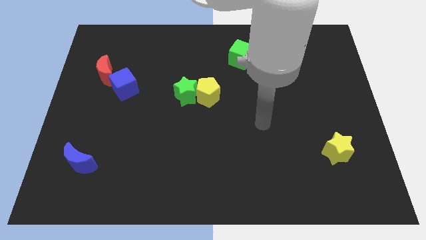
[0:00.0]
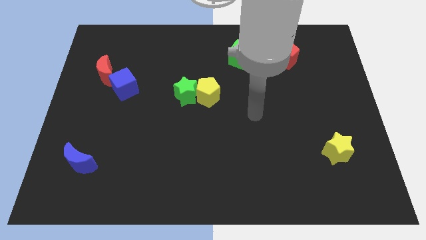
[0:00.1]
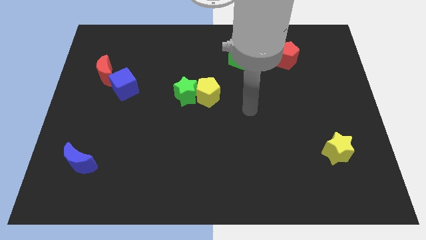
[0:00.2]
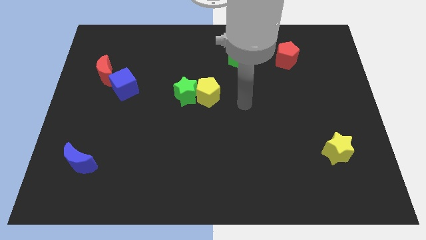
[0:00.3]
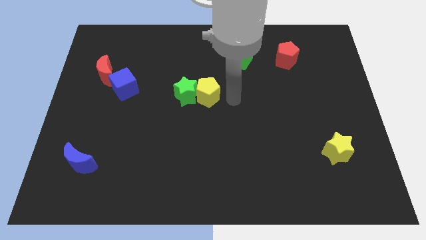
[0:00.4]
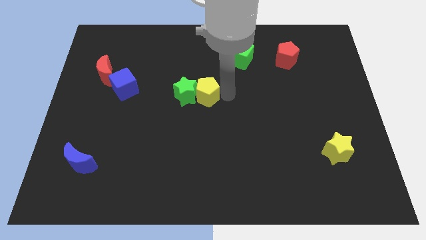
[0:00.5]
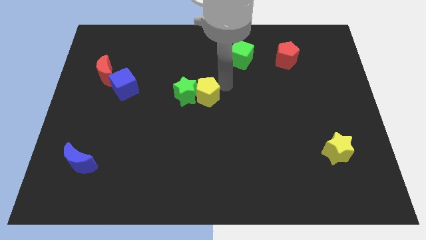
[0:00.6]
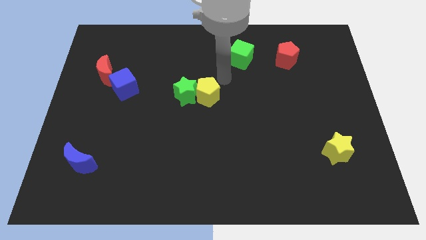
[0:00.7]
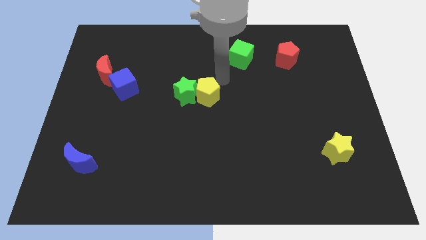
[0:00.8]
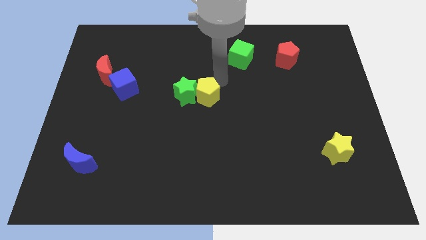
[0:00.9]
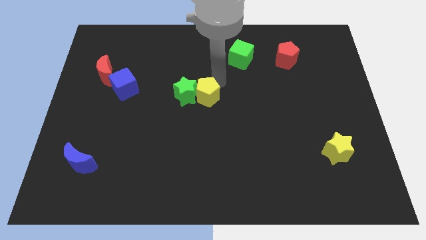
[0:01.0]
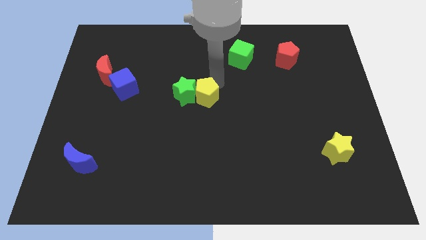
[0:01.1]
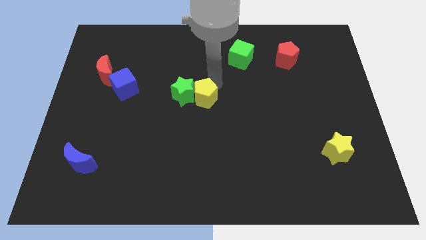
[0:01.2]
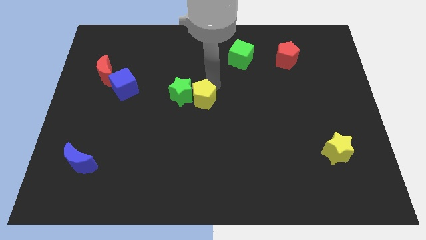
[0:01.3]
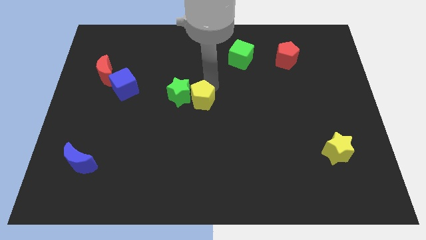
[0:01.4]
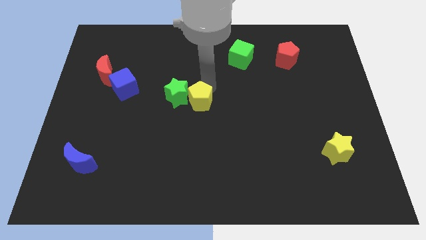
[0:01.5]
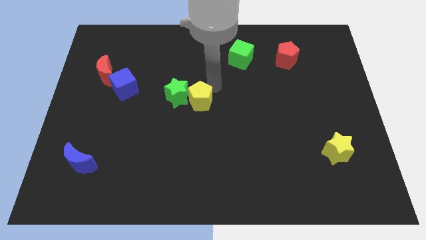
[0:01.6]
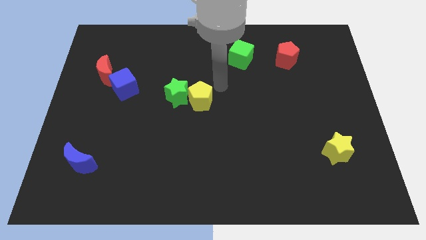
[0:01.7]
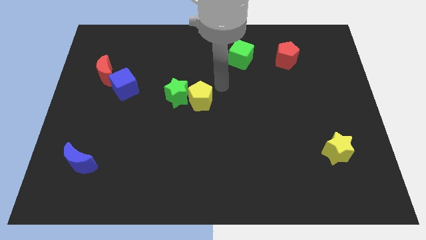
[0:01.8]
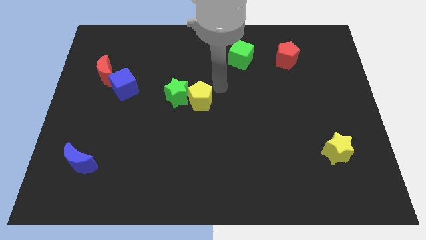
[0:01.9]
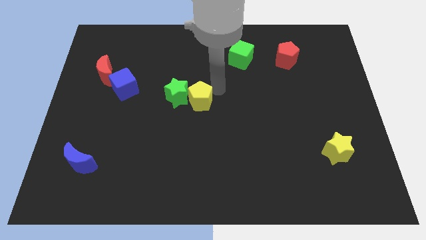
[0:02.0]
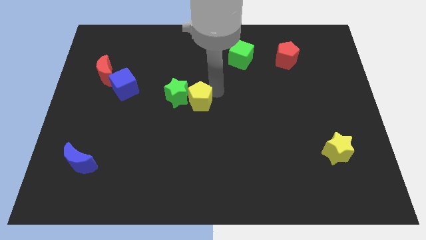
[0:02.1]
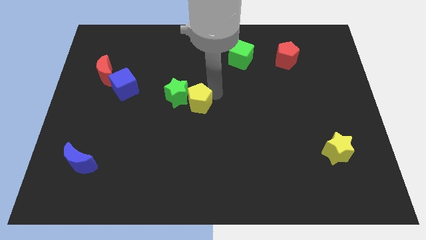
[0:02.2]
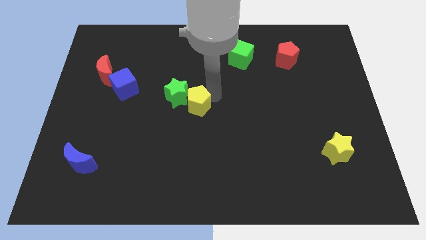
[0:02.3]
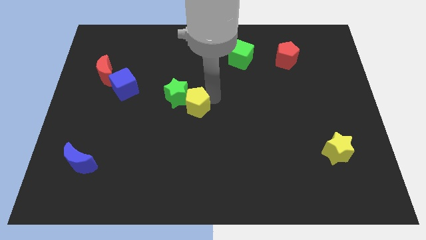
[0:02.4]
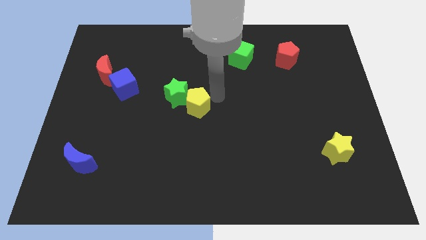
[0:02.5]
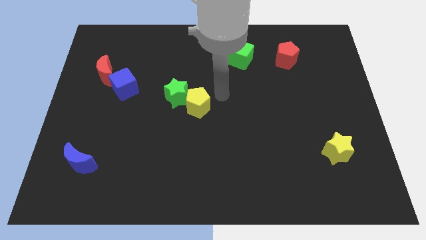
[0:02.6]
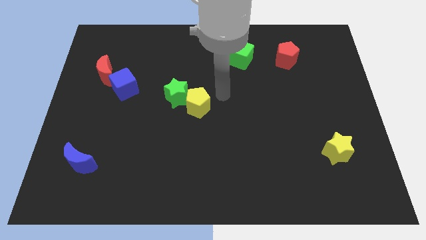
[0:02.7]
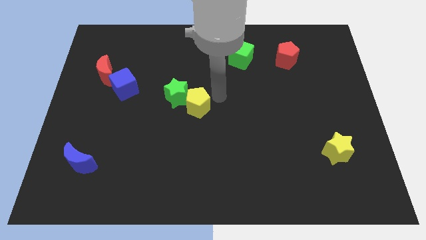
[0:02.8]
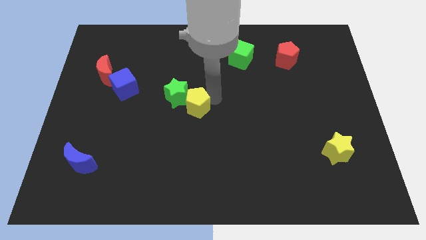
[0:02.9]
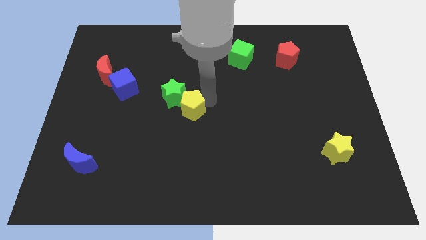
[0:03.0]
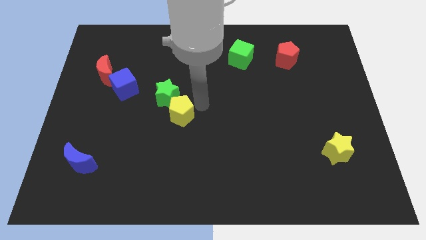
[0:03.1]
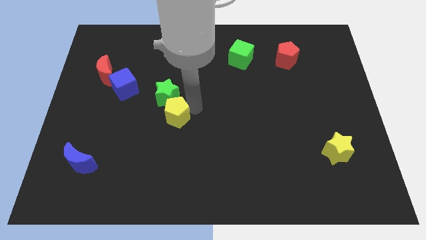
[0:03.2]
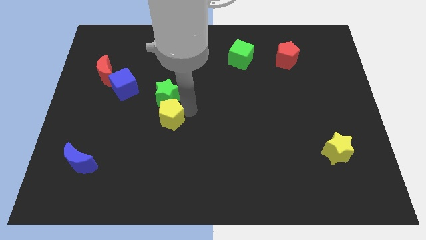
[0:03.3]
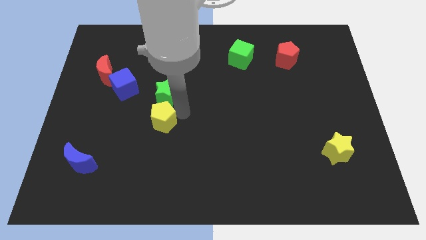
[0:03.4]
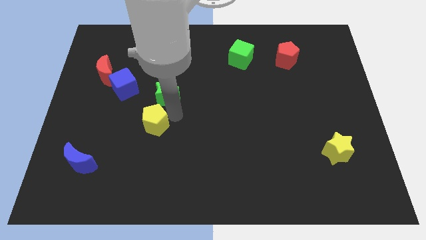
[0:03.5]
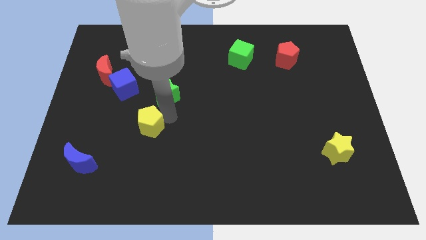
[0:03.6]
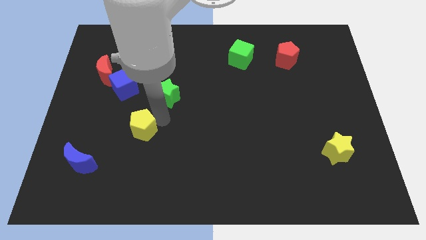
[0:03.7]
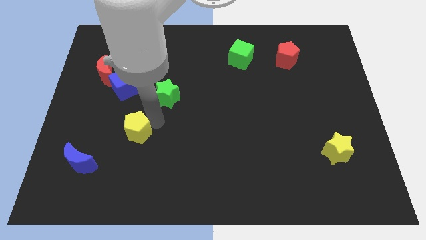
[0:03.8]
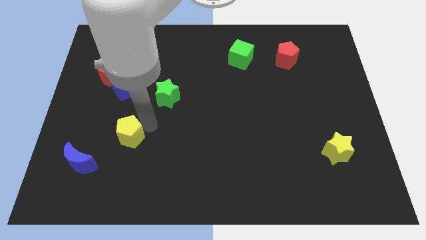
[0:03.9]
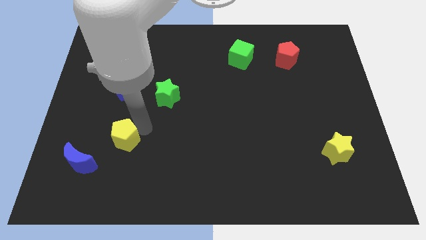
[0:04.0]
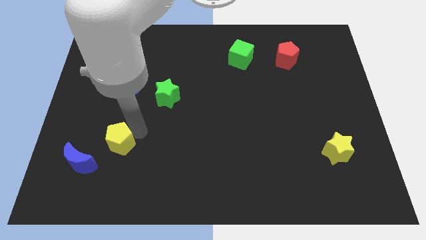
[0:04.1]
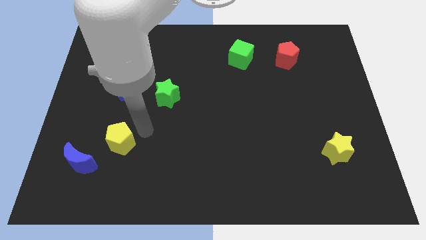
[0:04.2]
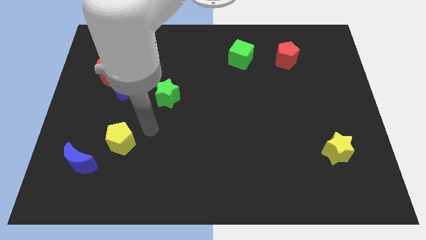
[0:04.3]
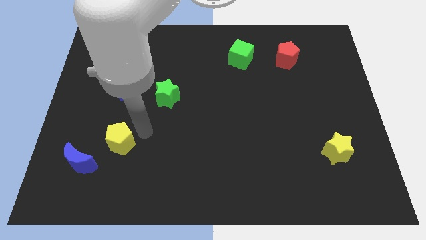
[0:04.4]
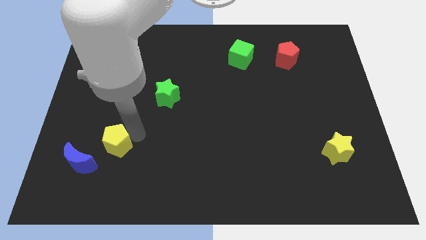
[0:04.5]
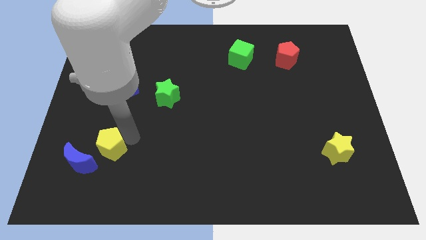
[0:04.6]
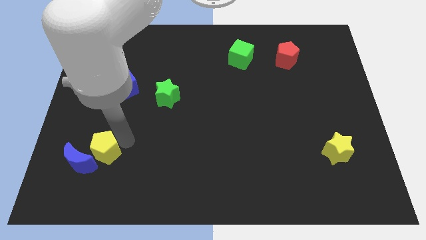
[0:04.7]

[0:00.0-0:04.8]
push the yellow pentagon towards the blue moon

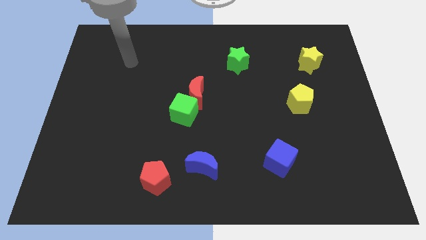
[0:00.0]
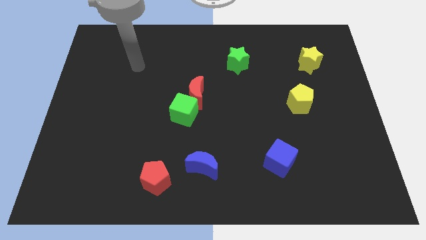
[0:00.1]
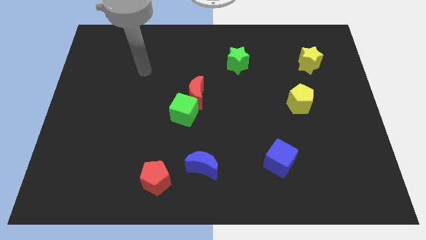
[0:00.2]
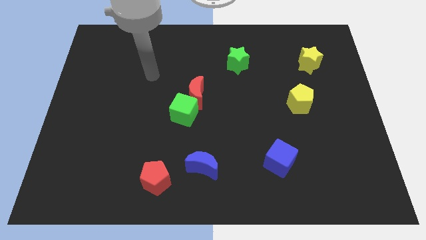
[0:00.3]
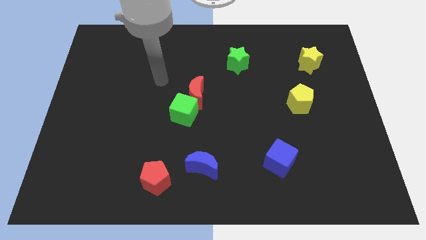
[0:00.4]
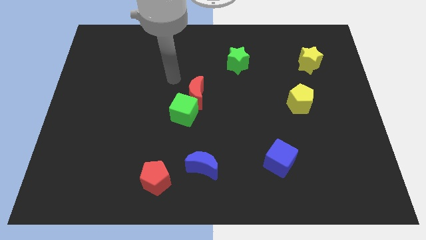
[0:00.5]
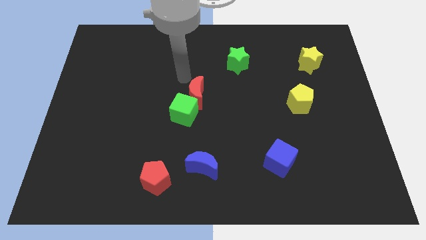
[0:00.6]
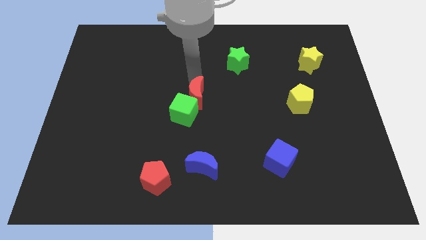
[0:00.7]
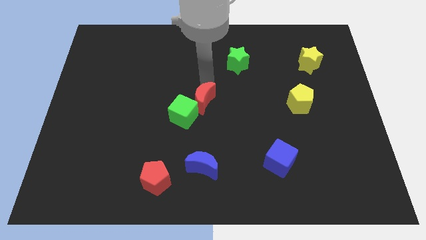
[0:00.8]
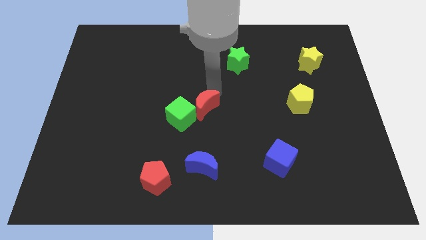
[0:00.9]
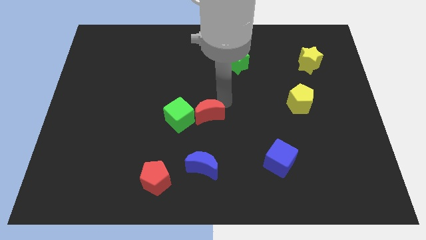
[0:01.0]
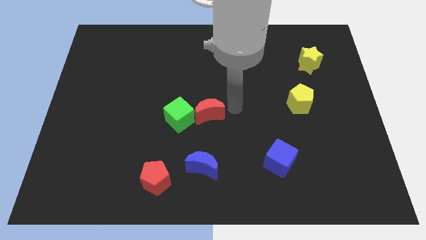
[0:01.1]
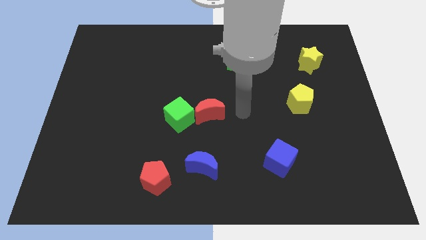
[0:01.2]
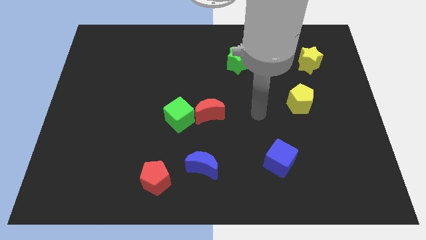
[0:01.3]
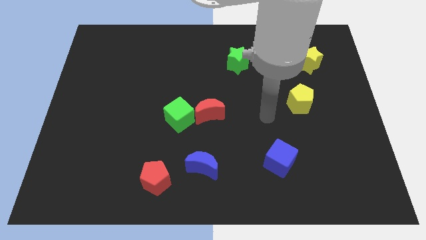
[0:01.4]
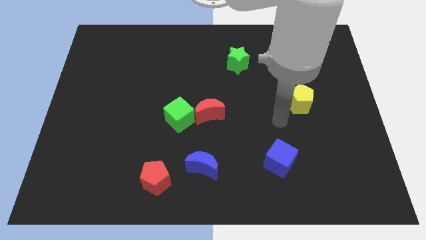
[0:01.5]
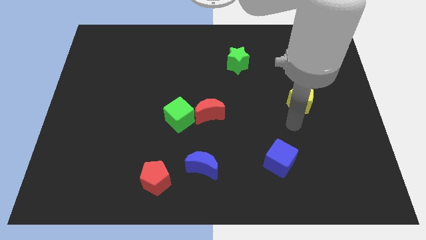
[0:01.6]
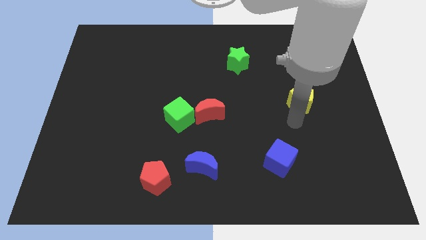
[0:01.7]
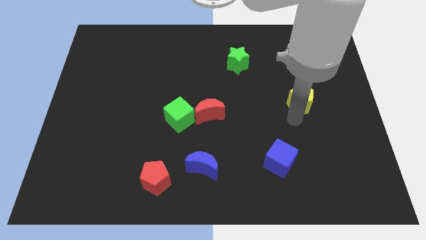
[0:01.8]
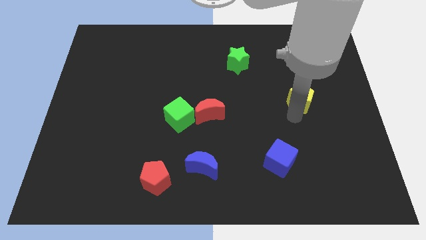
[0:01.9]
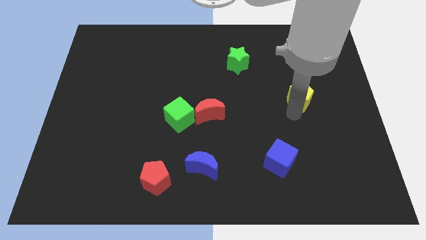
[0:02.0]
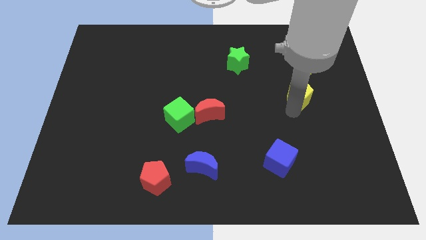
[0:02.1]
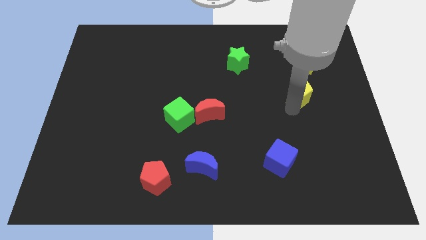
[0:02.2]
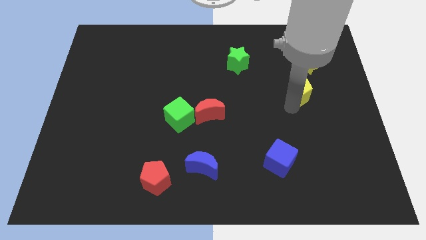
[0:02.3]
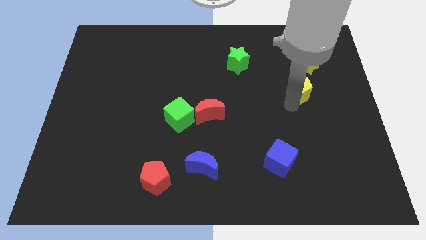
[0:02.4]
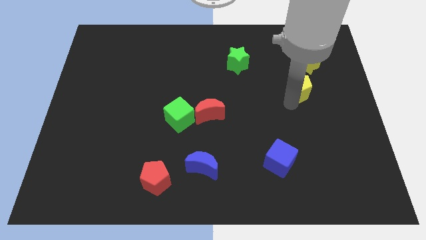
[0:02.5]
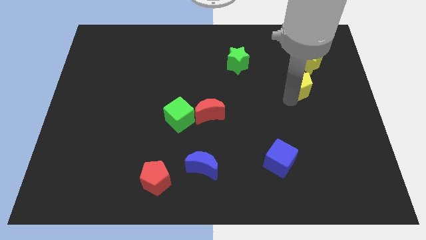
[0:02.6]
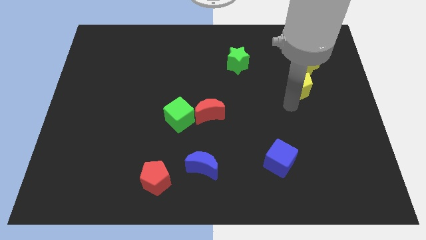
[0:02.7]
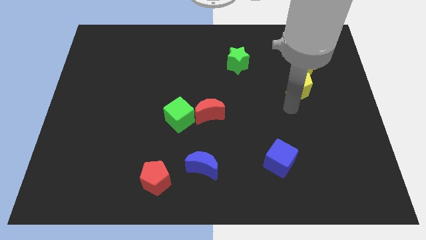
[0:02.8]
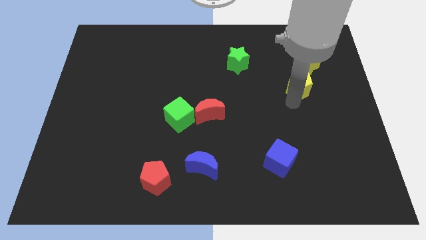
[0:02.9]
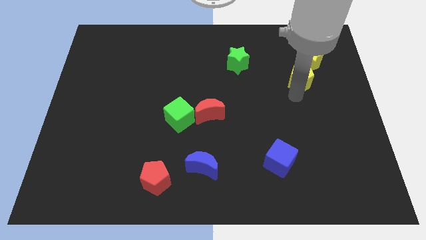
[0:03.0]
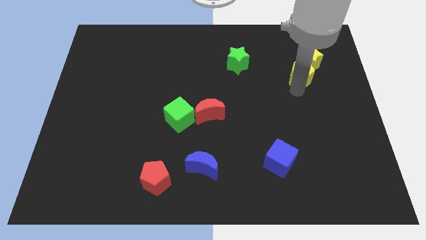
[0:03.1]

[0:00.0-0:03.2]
slide the yellow pentagon close to the yellow star
